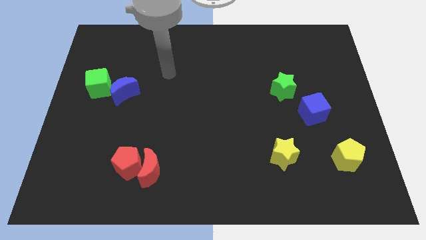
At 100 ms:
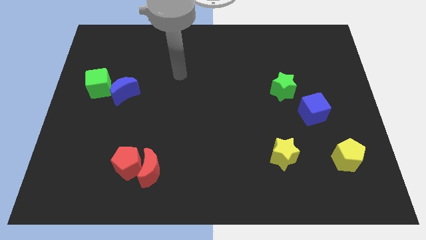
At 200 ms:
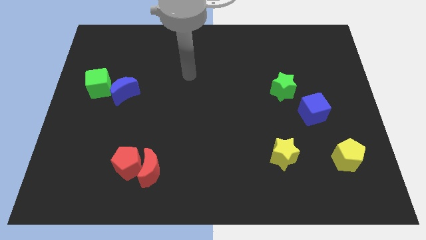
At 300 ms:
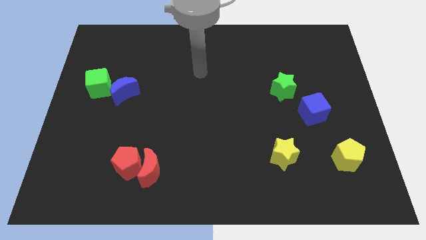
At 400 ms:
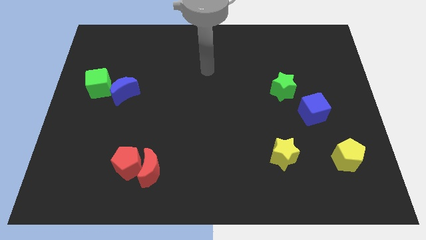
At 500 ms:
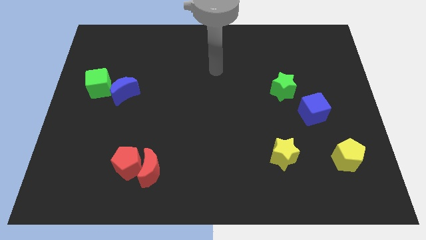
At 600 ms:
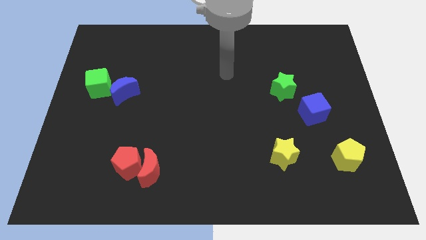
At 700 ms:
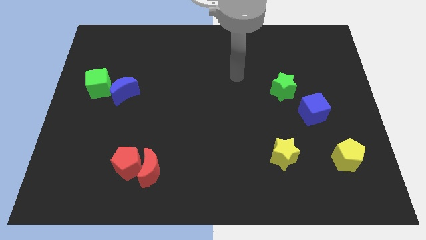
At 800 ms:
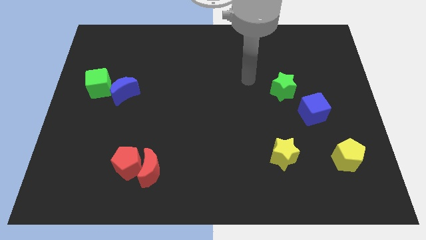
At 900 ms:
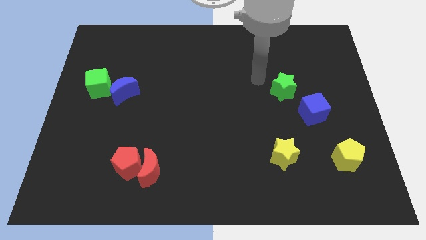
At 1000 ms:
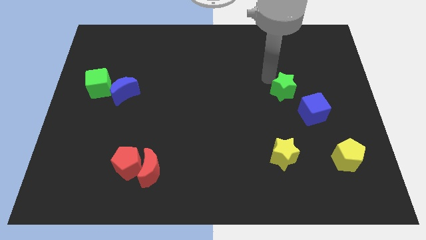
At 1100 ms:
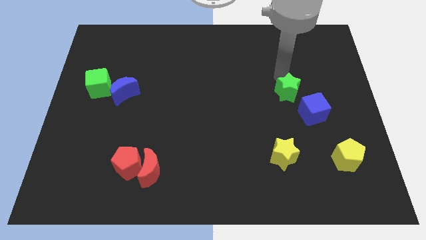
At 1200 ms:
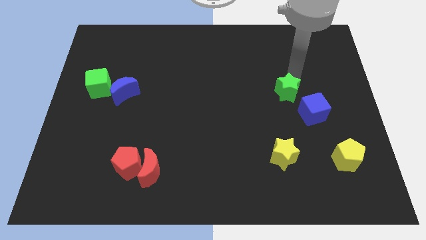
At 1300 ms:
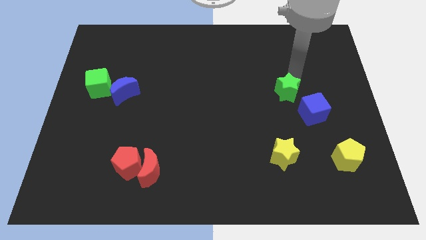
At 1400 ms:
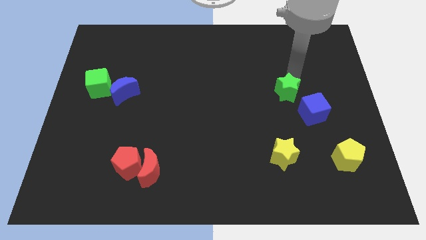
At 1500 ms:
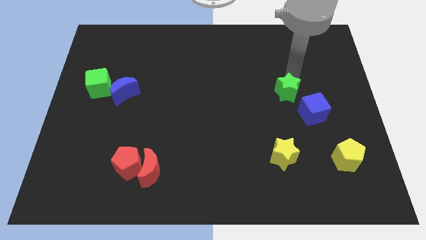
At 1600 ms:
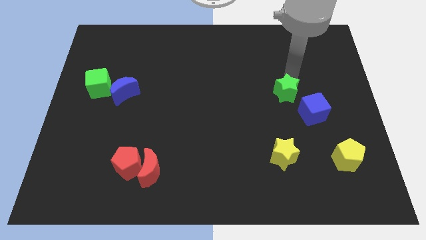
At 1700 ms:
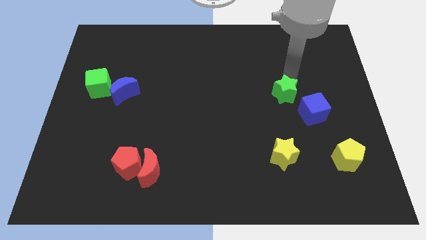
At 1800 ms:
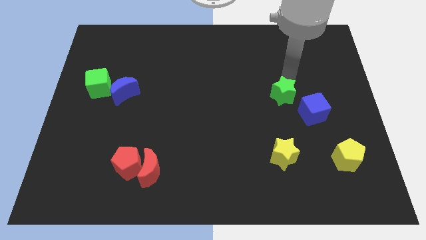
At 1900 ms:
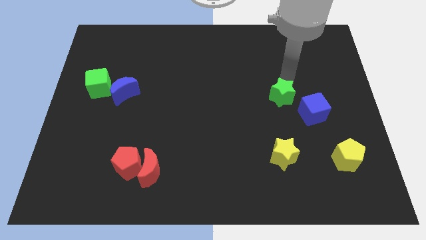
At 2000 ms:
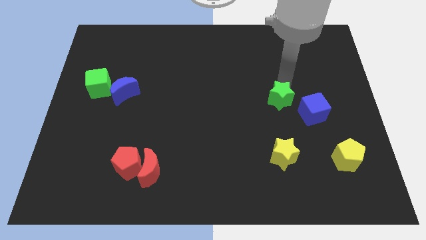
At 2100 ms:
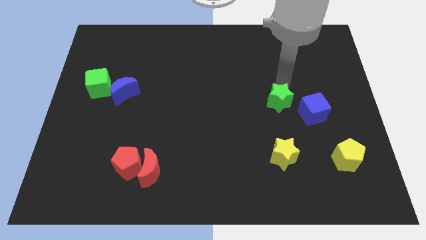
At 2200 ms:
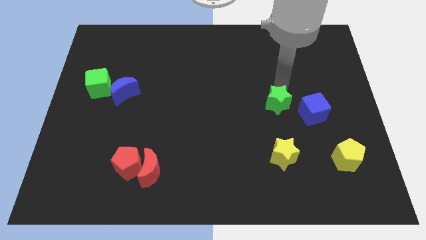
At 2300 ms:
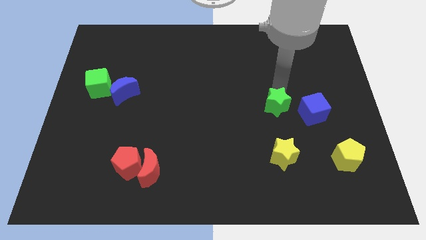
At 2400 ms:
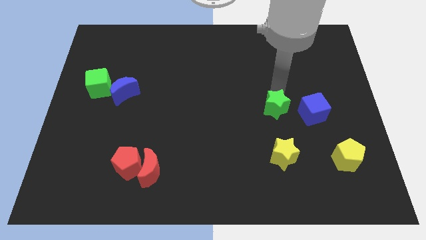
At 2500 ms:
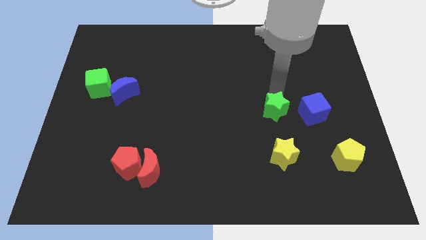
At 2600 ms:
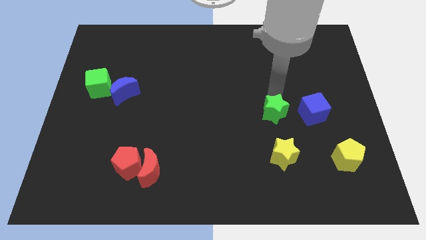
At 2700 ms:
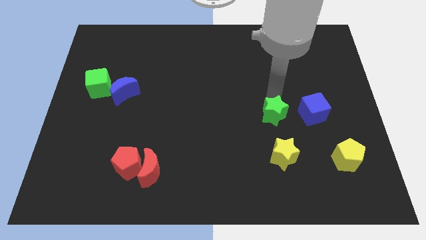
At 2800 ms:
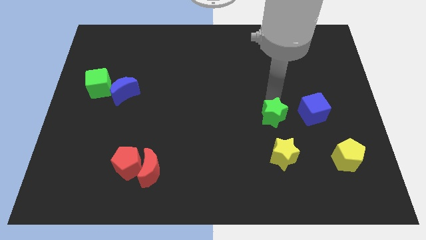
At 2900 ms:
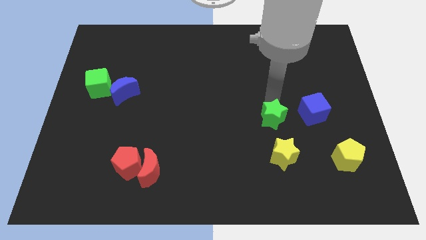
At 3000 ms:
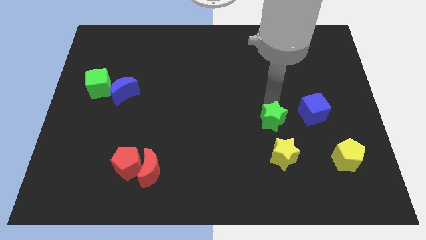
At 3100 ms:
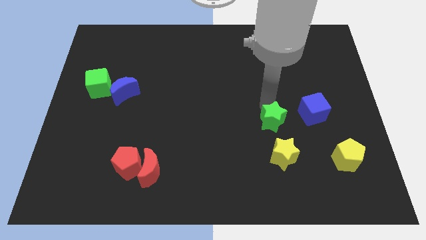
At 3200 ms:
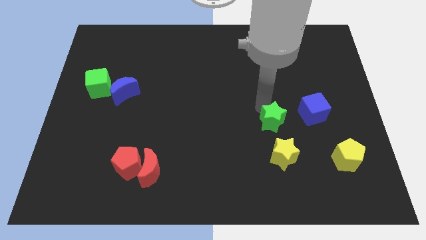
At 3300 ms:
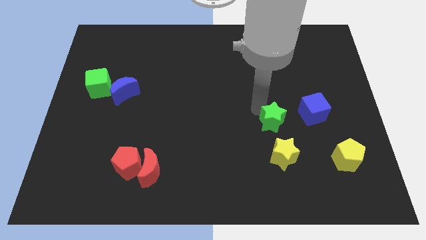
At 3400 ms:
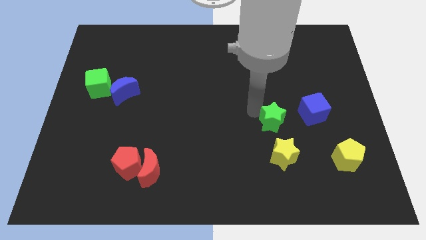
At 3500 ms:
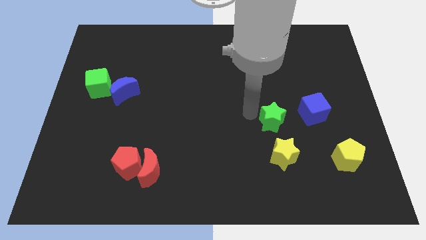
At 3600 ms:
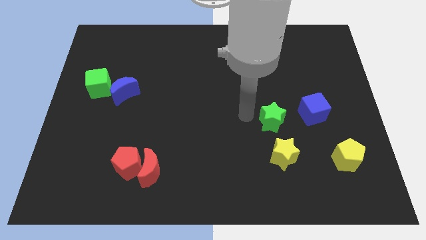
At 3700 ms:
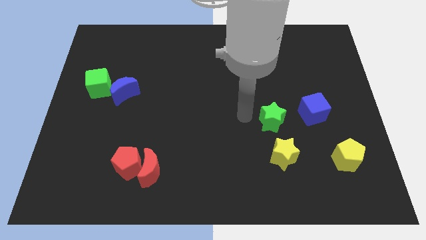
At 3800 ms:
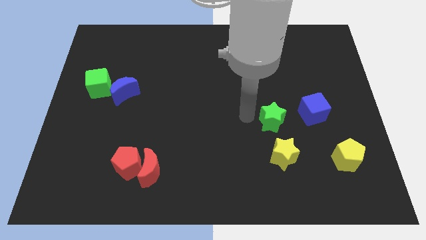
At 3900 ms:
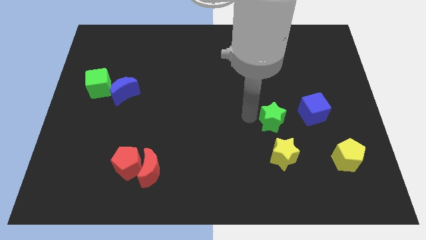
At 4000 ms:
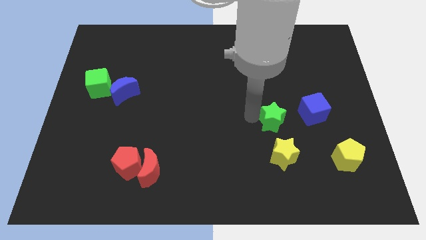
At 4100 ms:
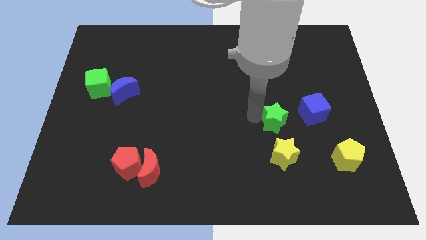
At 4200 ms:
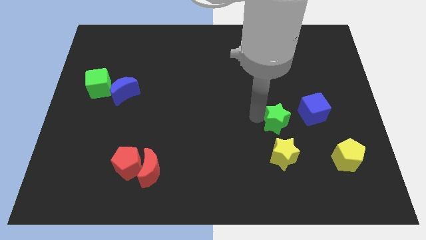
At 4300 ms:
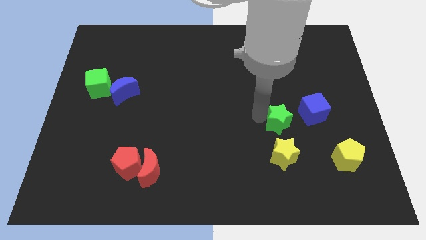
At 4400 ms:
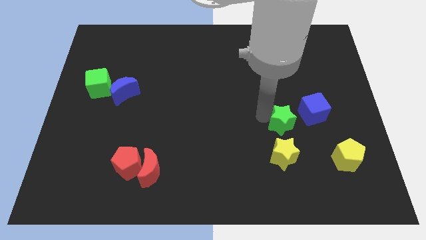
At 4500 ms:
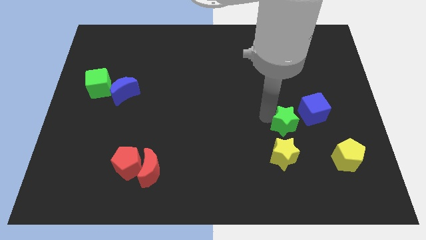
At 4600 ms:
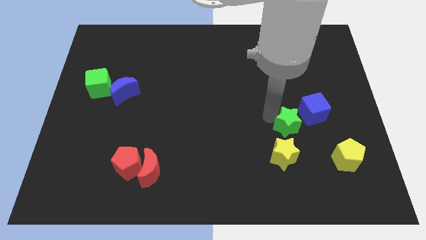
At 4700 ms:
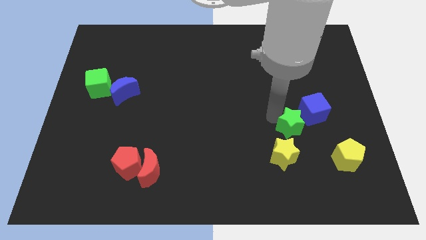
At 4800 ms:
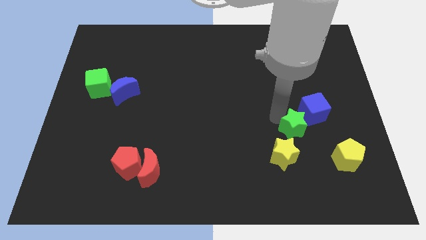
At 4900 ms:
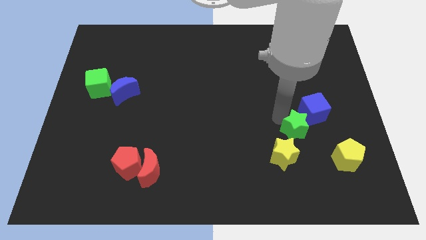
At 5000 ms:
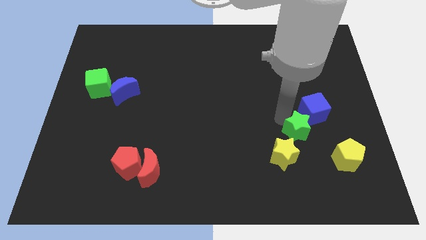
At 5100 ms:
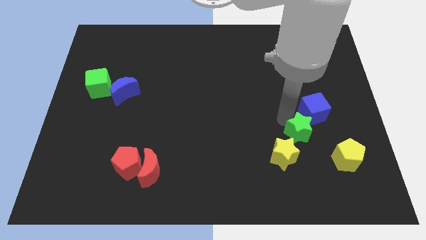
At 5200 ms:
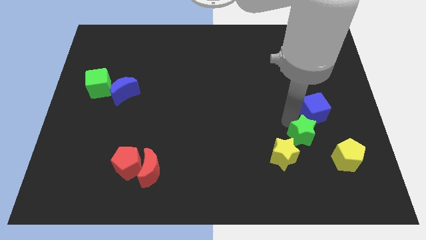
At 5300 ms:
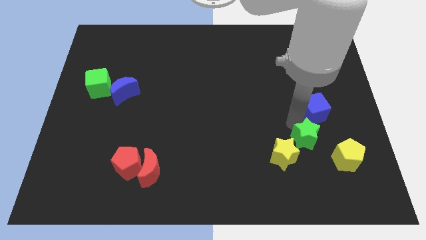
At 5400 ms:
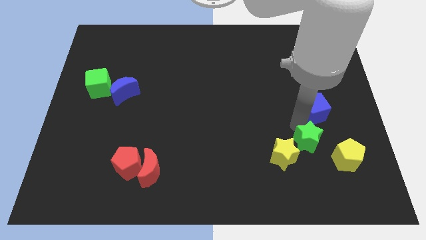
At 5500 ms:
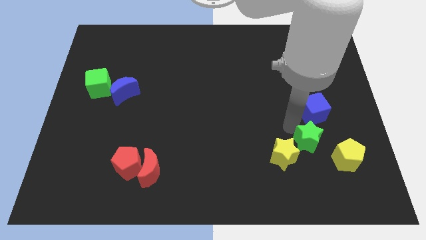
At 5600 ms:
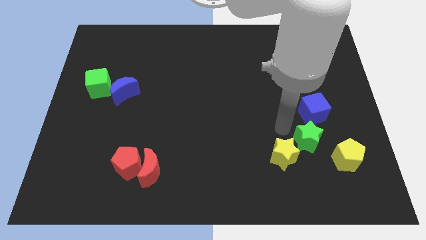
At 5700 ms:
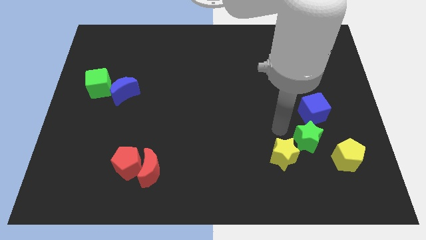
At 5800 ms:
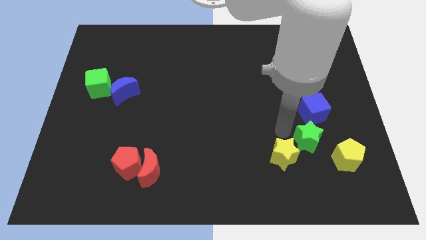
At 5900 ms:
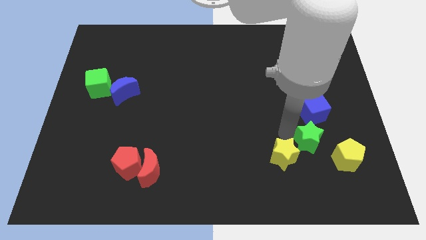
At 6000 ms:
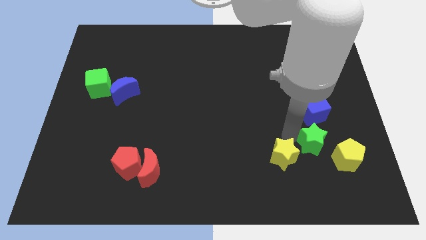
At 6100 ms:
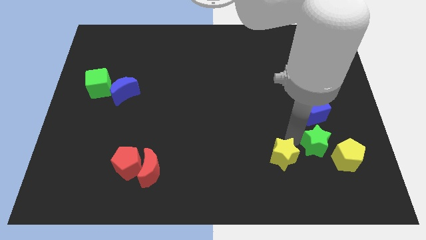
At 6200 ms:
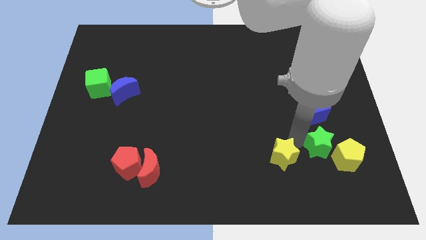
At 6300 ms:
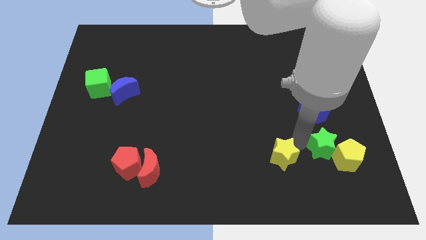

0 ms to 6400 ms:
push the green star next to the yellow pentagon

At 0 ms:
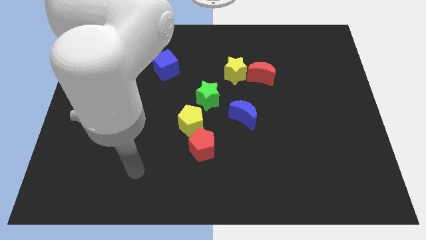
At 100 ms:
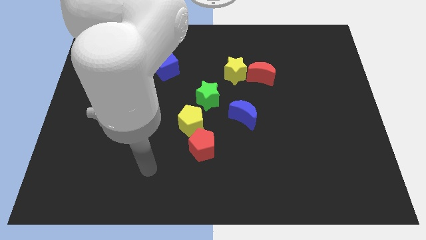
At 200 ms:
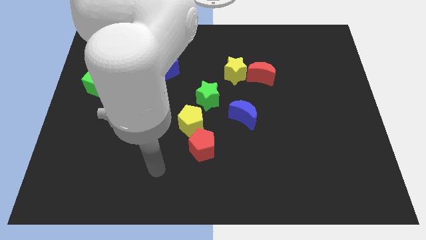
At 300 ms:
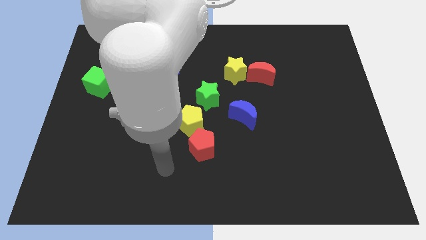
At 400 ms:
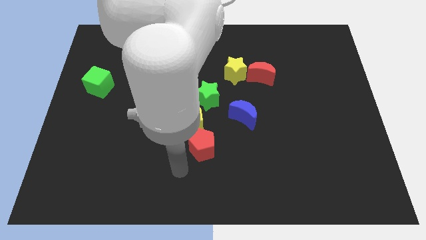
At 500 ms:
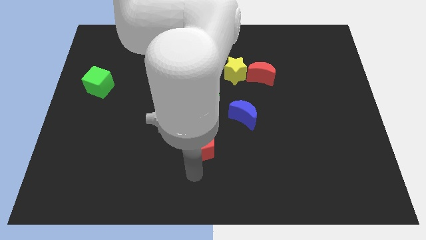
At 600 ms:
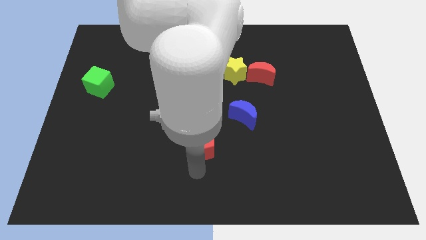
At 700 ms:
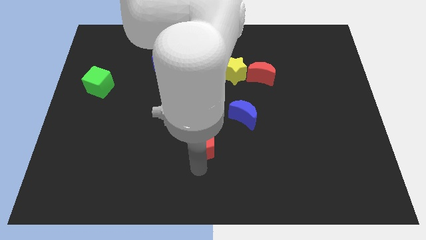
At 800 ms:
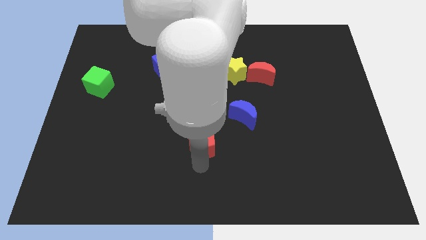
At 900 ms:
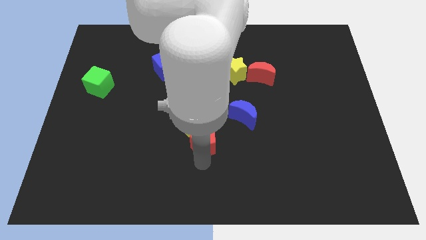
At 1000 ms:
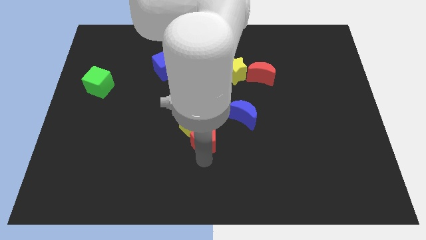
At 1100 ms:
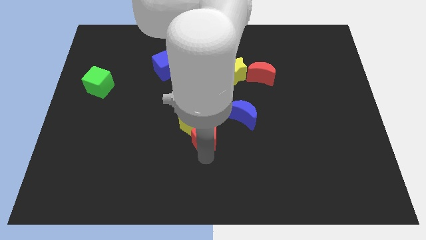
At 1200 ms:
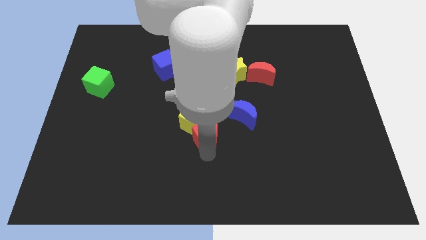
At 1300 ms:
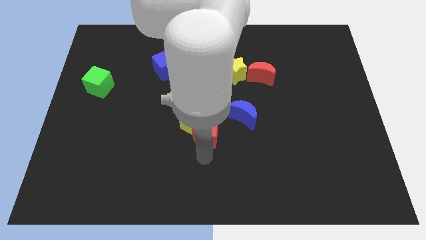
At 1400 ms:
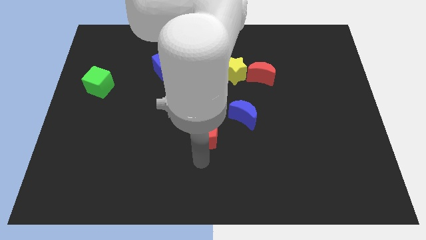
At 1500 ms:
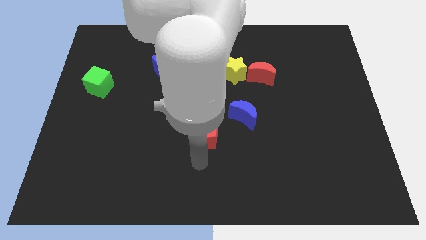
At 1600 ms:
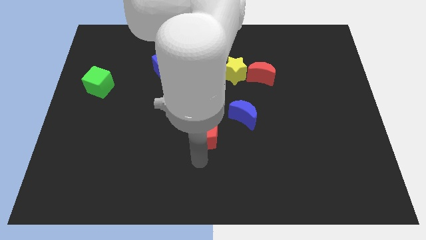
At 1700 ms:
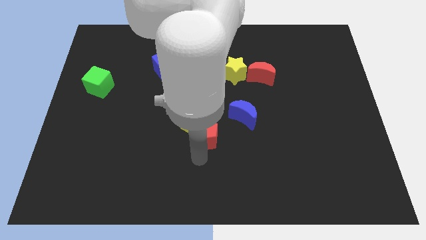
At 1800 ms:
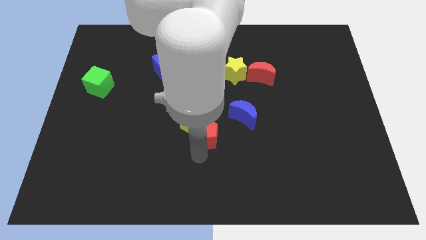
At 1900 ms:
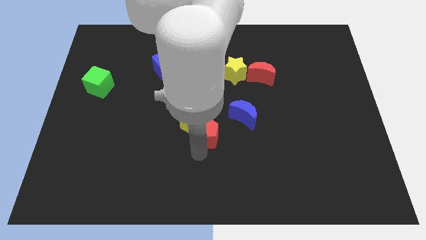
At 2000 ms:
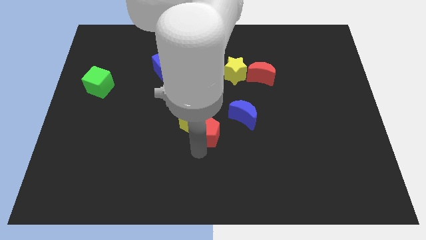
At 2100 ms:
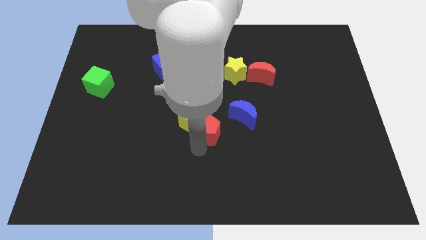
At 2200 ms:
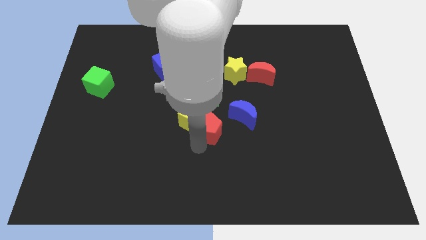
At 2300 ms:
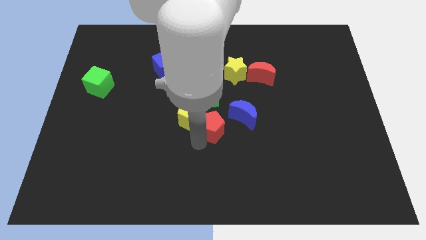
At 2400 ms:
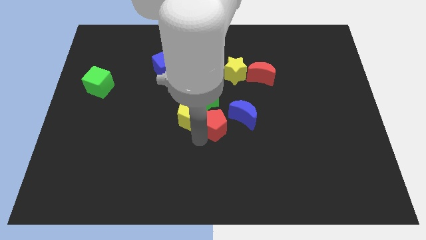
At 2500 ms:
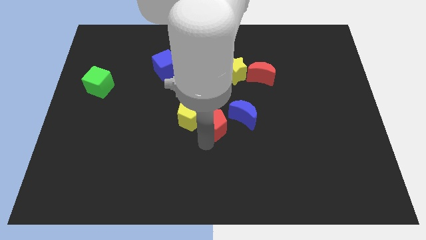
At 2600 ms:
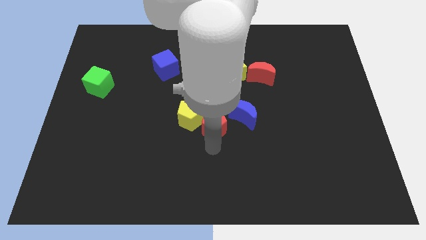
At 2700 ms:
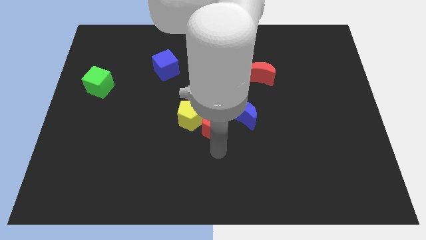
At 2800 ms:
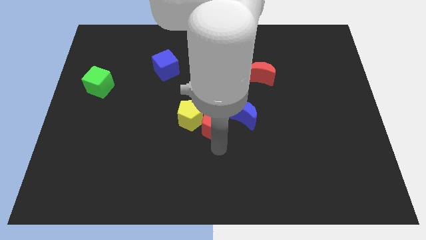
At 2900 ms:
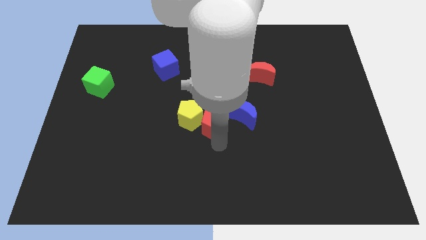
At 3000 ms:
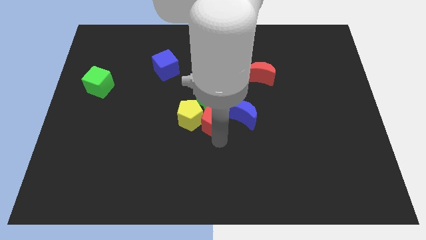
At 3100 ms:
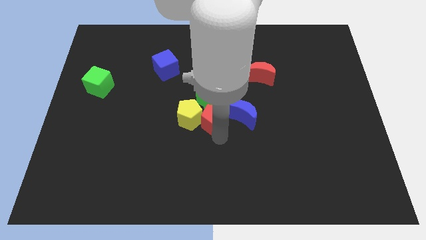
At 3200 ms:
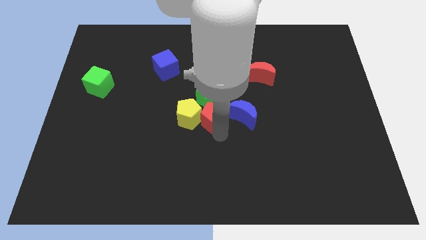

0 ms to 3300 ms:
push the red pentagon towards the green star
